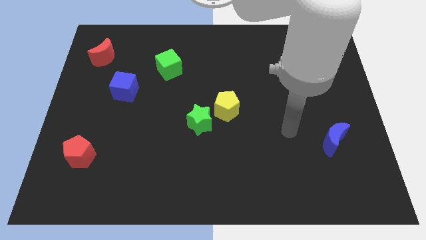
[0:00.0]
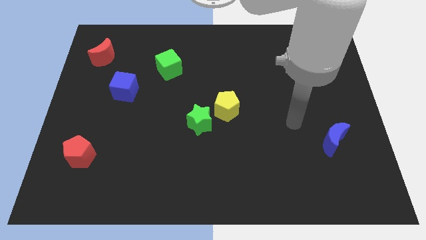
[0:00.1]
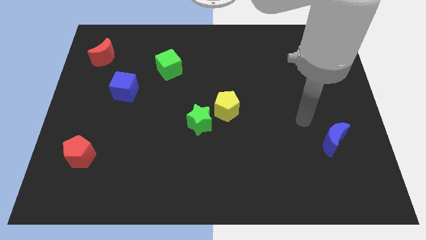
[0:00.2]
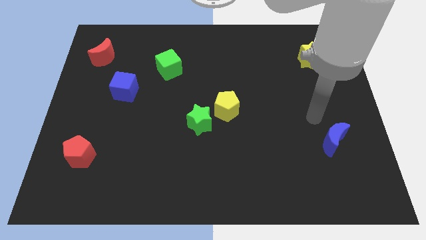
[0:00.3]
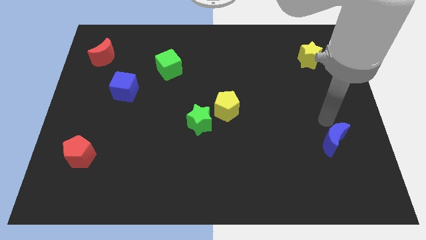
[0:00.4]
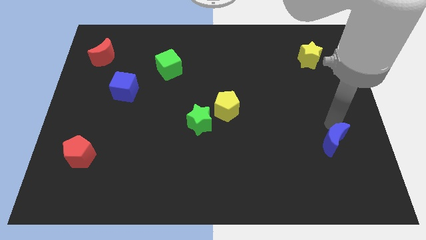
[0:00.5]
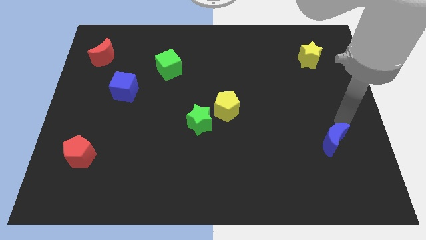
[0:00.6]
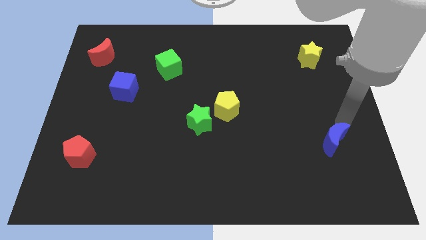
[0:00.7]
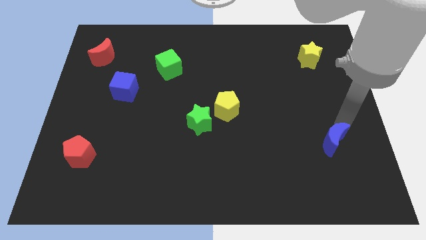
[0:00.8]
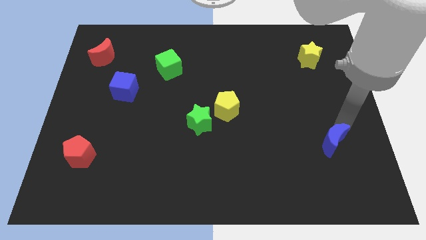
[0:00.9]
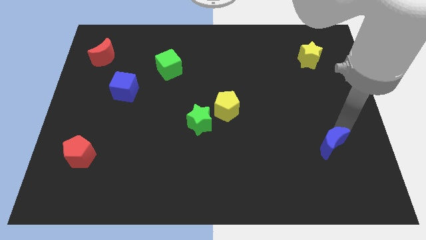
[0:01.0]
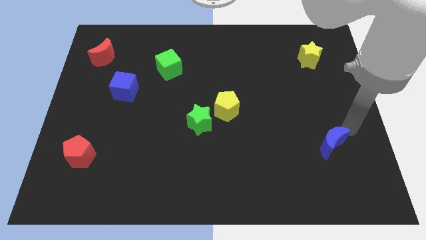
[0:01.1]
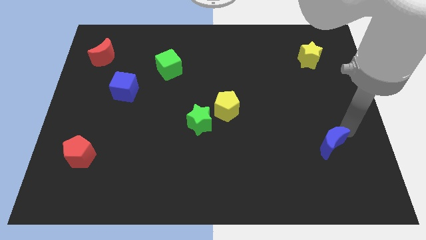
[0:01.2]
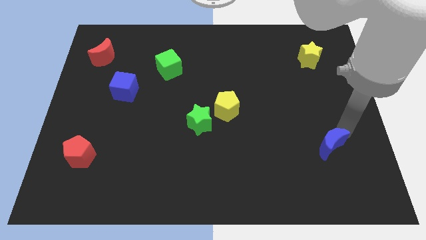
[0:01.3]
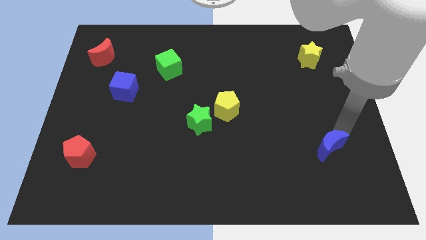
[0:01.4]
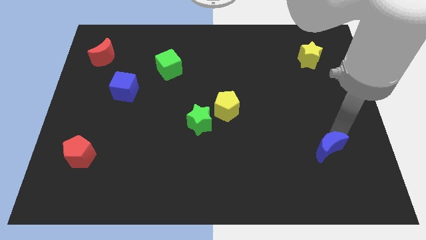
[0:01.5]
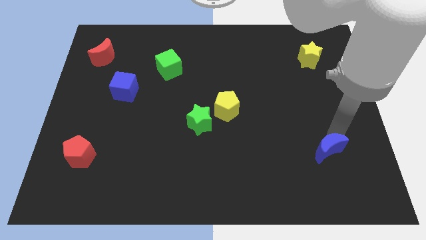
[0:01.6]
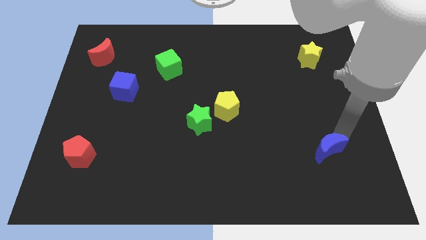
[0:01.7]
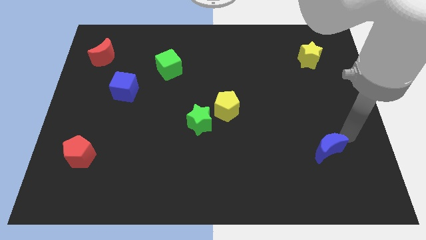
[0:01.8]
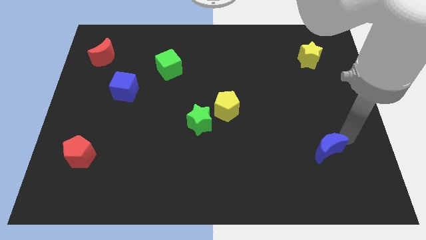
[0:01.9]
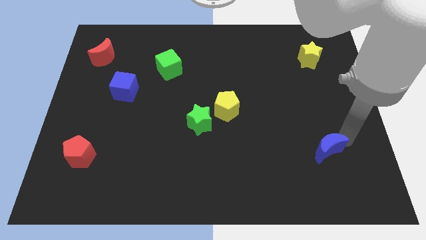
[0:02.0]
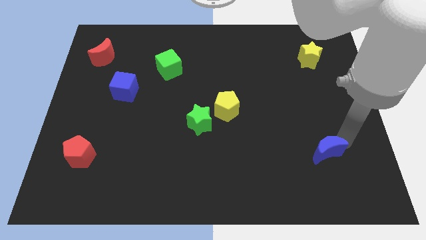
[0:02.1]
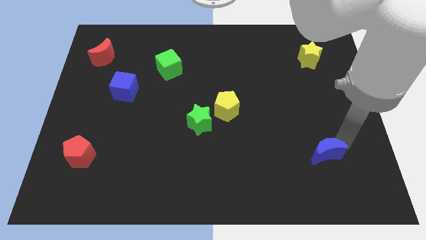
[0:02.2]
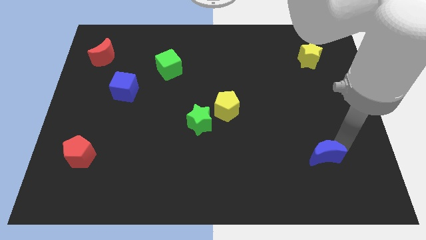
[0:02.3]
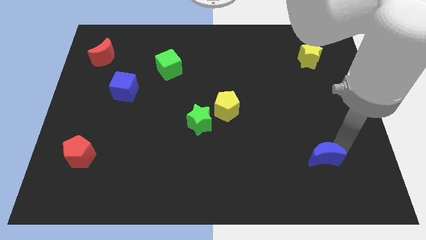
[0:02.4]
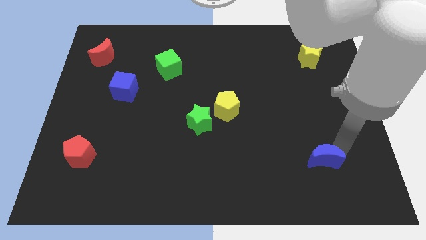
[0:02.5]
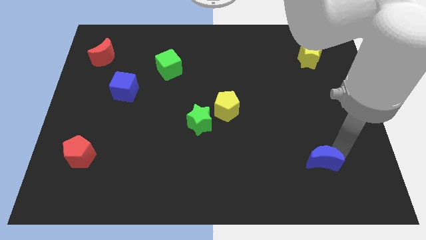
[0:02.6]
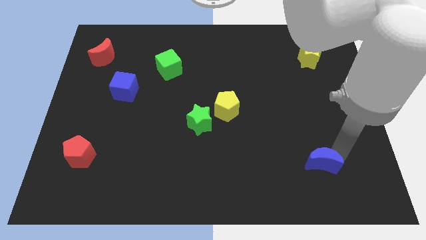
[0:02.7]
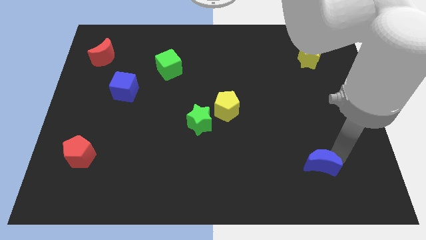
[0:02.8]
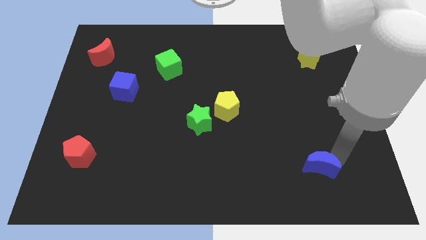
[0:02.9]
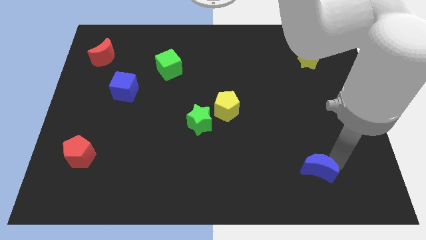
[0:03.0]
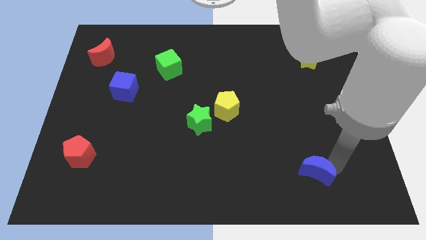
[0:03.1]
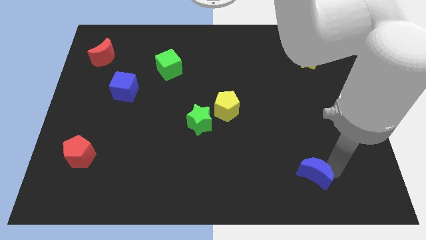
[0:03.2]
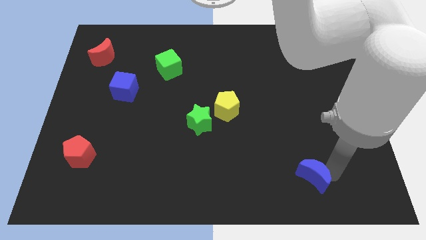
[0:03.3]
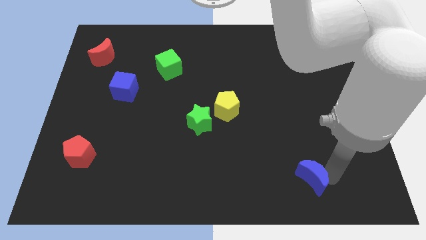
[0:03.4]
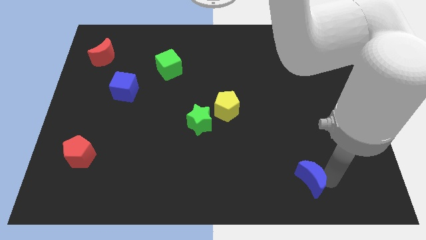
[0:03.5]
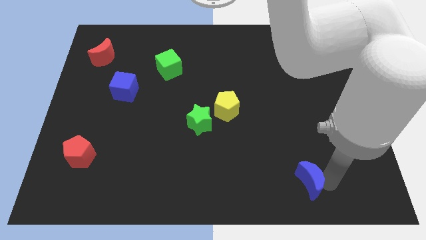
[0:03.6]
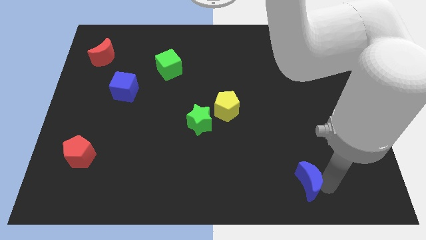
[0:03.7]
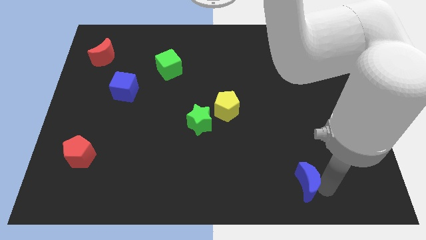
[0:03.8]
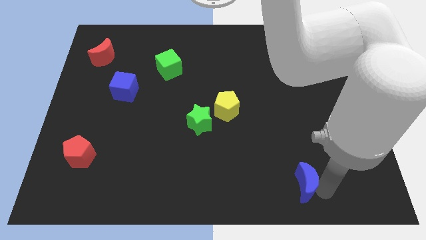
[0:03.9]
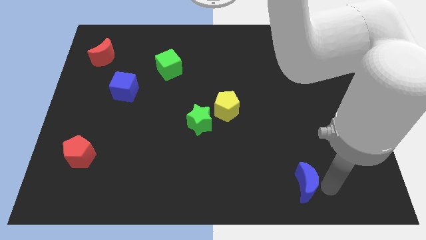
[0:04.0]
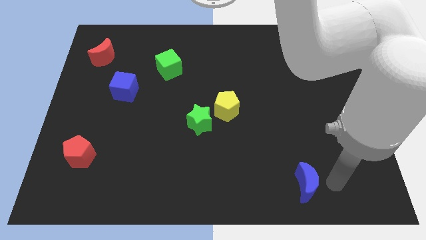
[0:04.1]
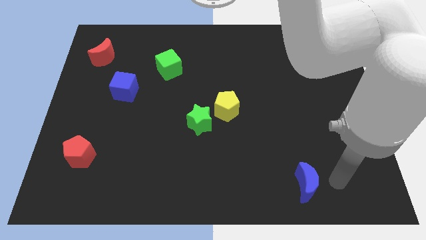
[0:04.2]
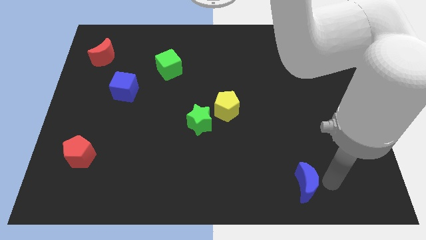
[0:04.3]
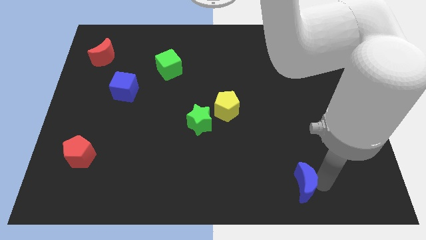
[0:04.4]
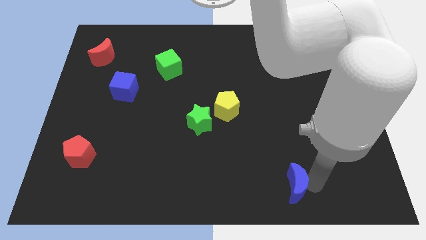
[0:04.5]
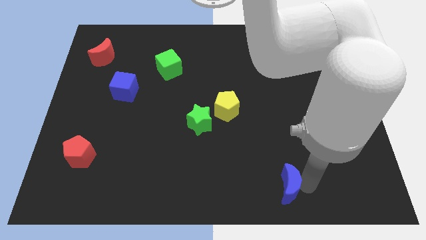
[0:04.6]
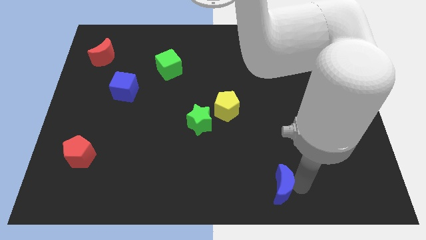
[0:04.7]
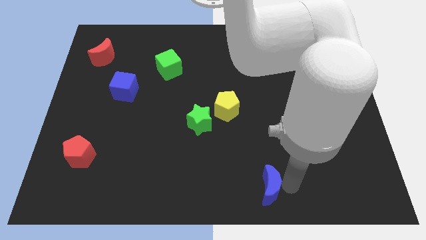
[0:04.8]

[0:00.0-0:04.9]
put the blue moon to the bottom side

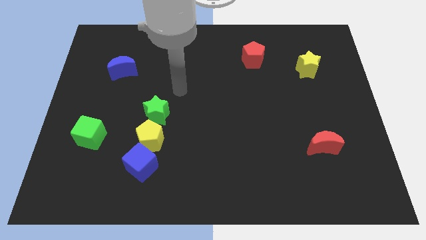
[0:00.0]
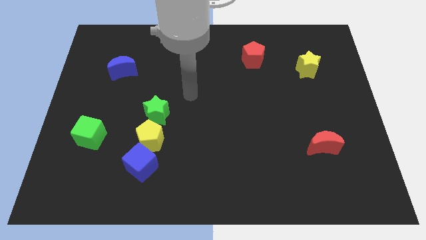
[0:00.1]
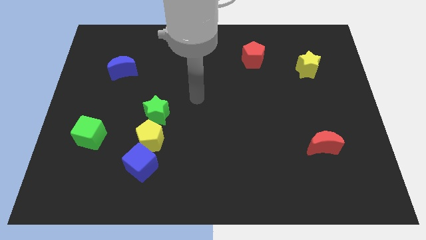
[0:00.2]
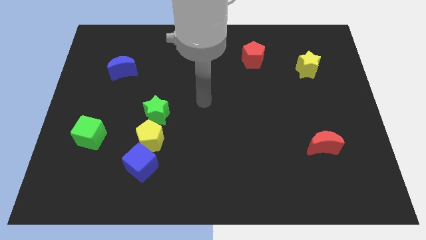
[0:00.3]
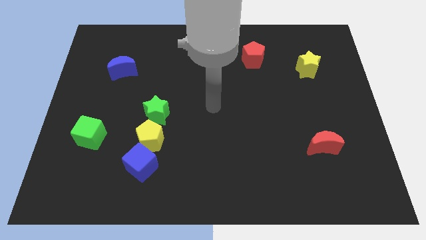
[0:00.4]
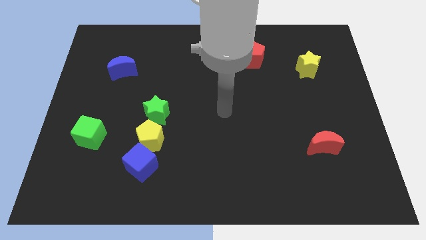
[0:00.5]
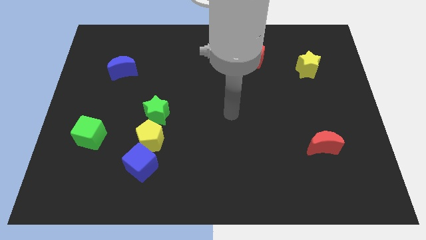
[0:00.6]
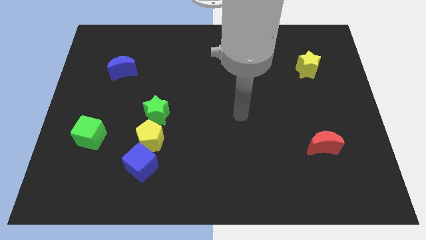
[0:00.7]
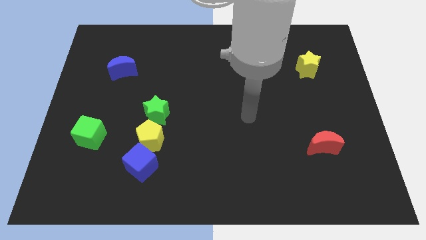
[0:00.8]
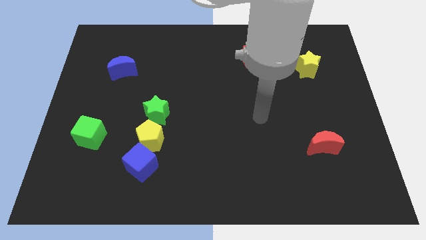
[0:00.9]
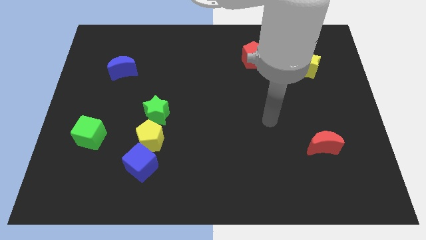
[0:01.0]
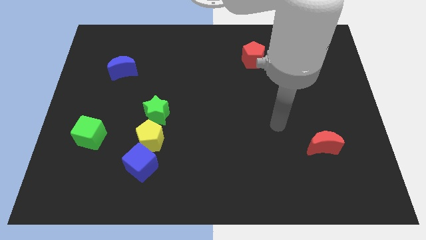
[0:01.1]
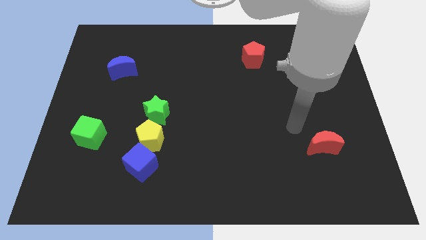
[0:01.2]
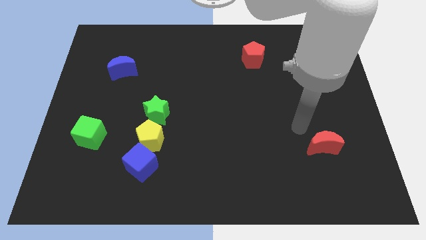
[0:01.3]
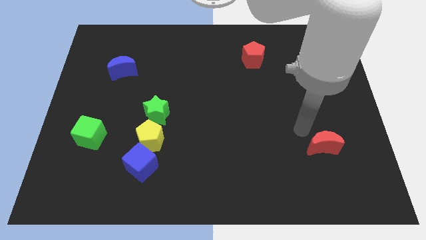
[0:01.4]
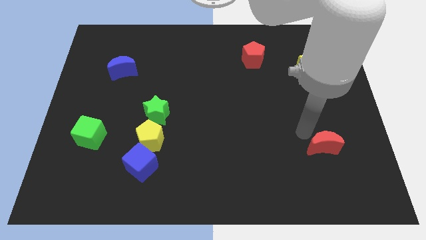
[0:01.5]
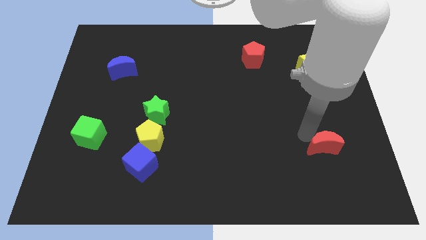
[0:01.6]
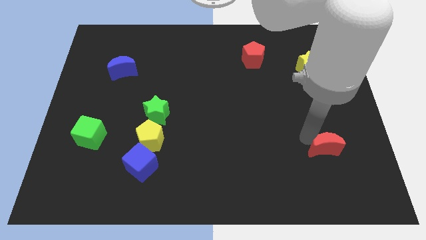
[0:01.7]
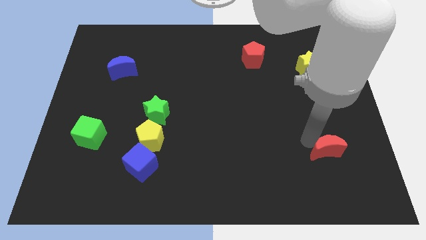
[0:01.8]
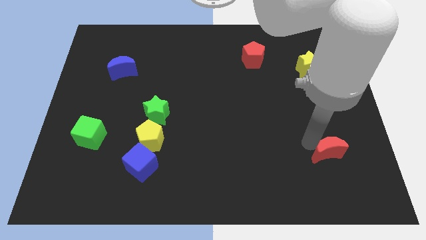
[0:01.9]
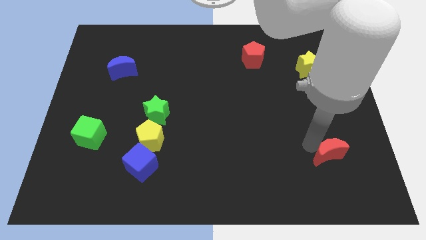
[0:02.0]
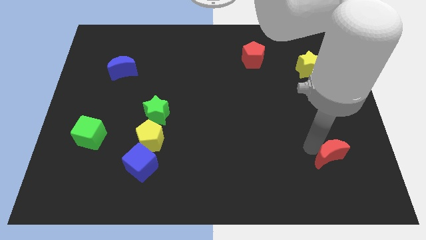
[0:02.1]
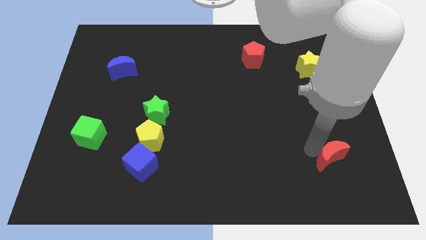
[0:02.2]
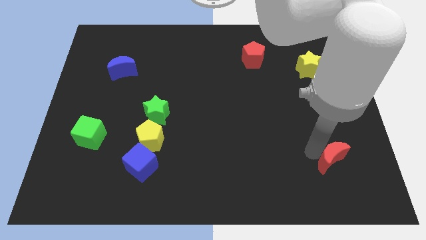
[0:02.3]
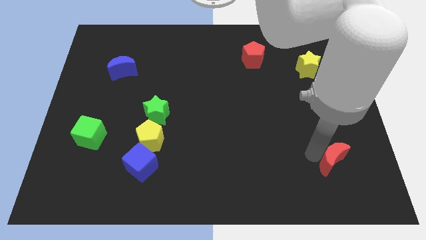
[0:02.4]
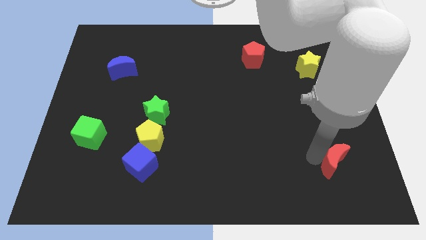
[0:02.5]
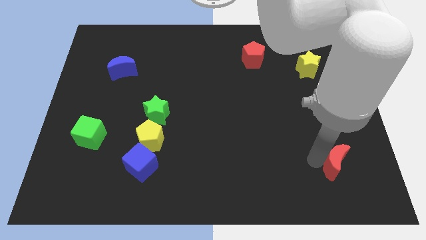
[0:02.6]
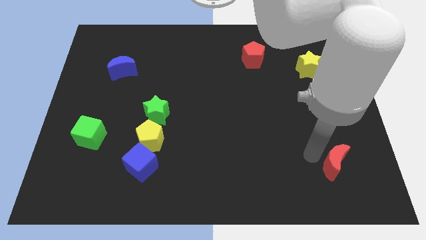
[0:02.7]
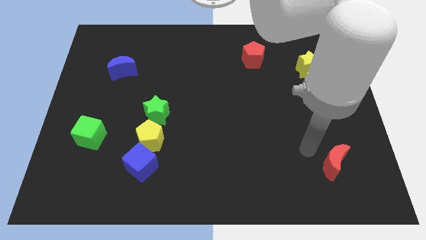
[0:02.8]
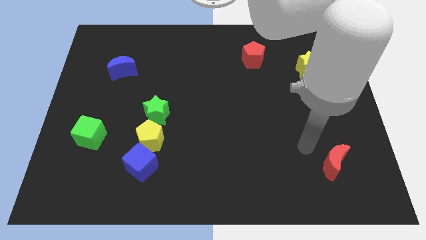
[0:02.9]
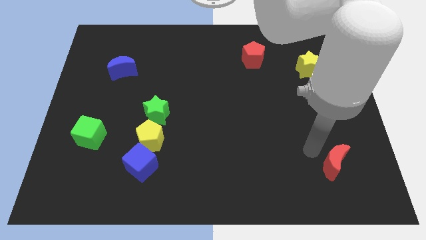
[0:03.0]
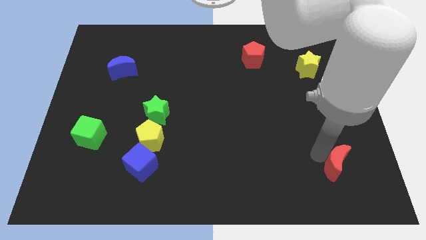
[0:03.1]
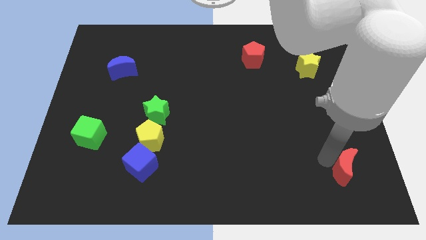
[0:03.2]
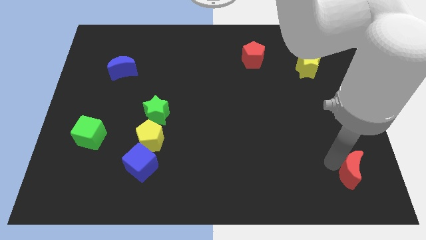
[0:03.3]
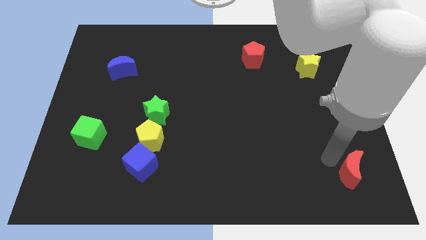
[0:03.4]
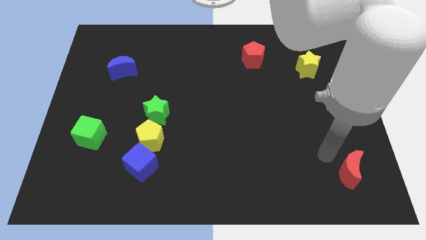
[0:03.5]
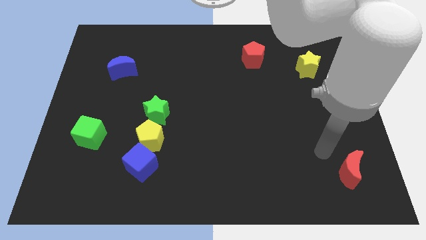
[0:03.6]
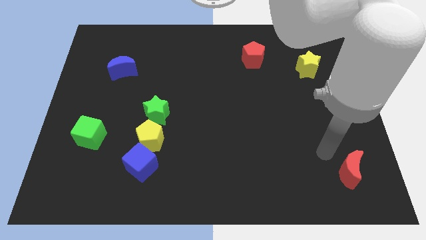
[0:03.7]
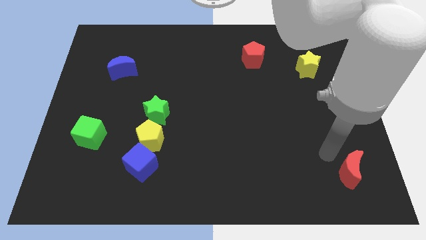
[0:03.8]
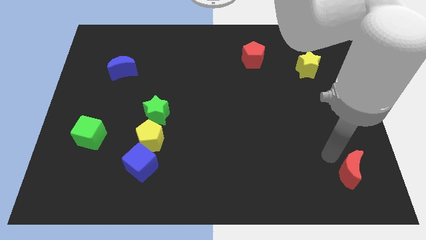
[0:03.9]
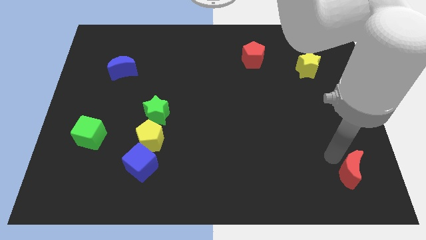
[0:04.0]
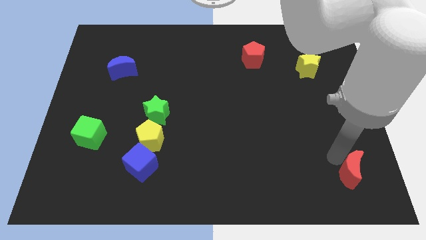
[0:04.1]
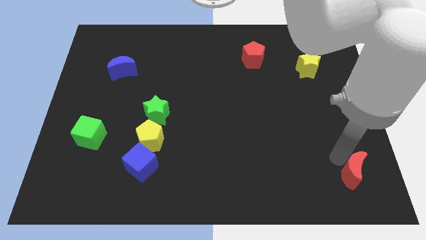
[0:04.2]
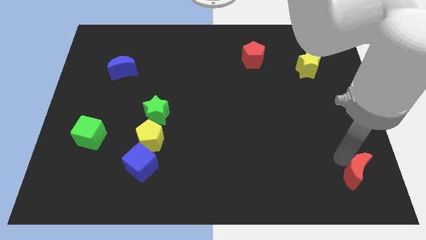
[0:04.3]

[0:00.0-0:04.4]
put the red moon to the bottom right
